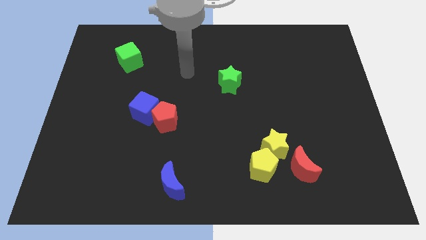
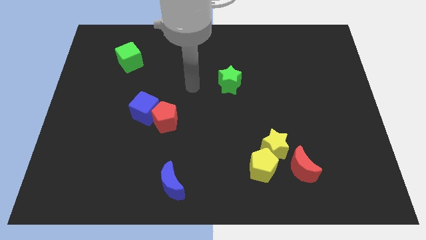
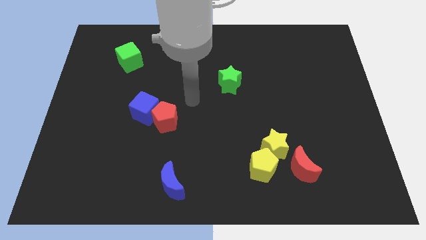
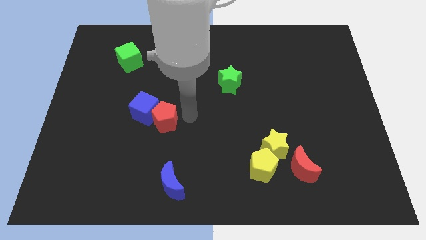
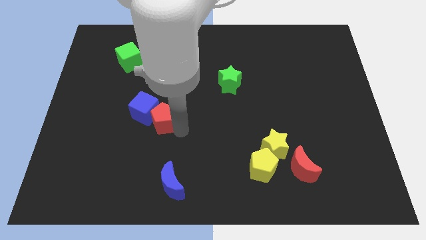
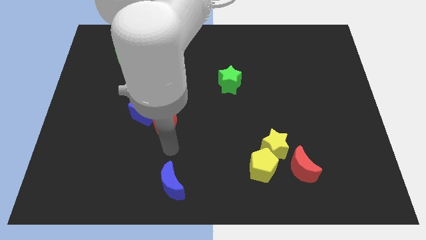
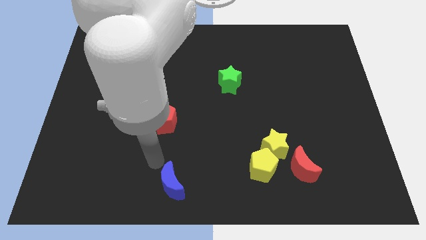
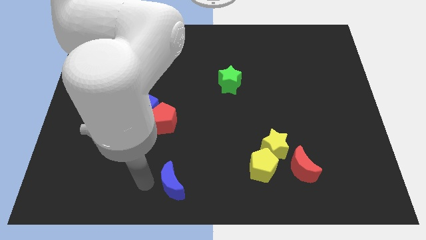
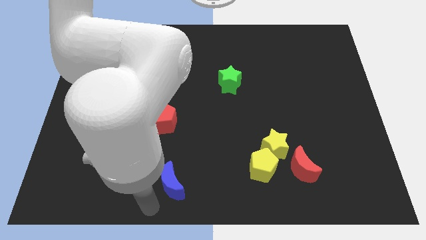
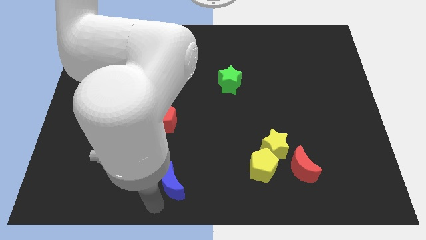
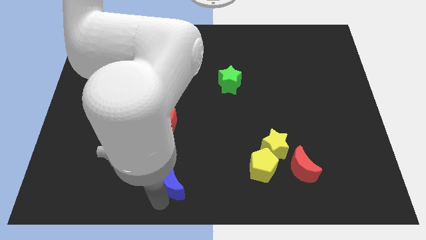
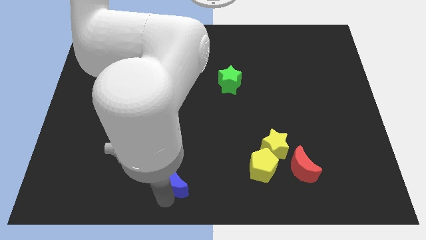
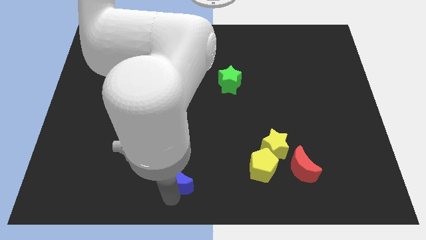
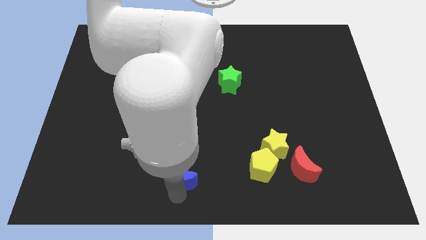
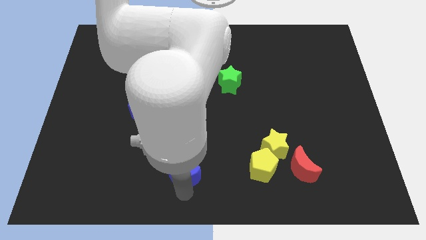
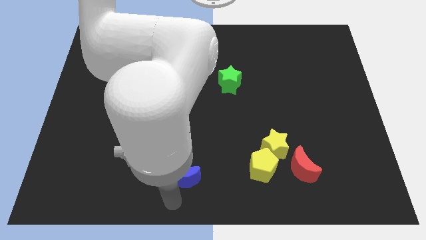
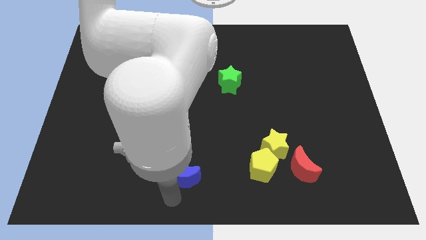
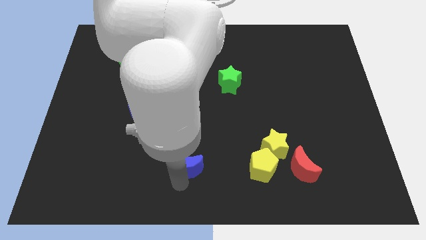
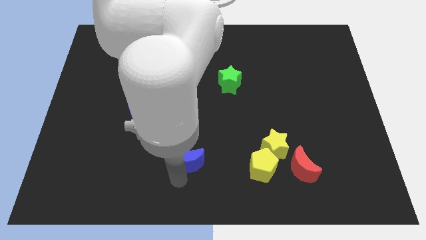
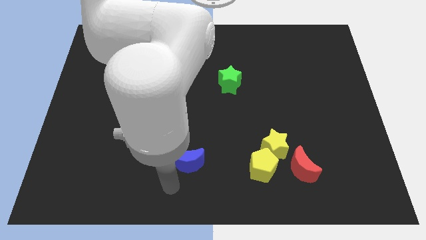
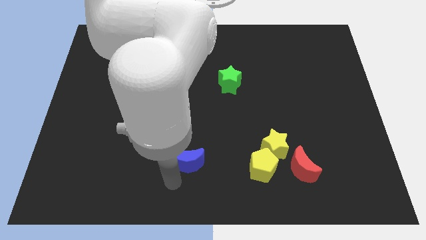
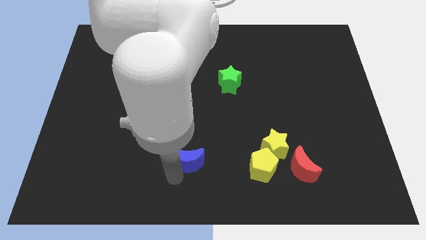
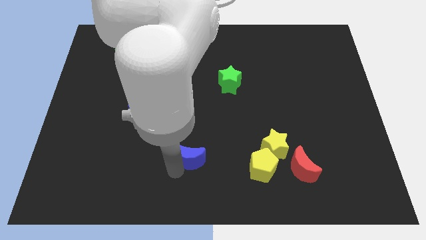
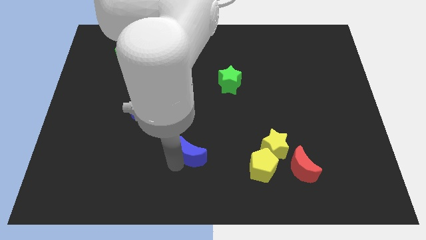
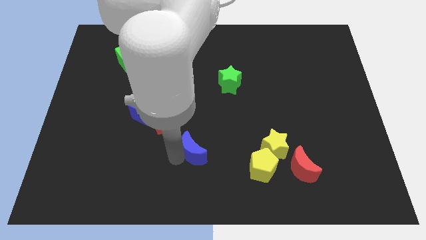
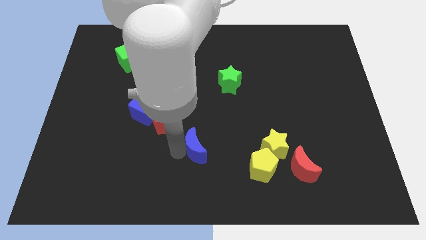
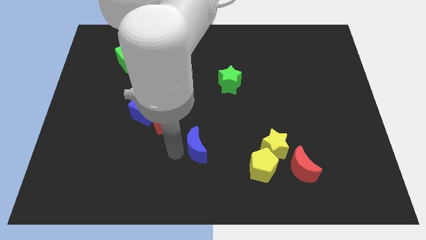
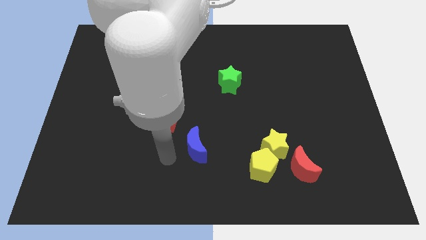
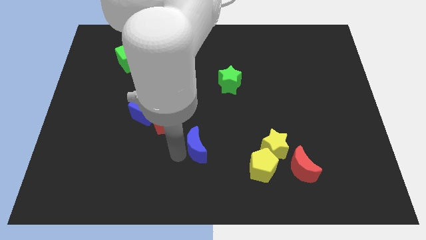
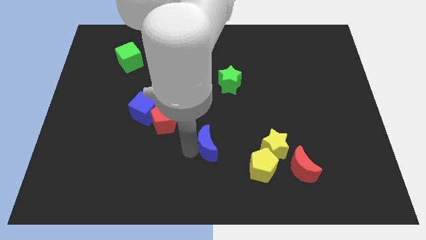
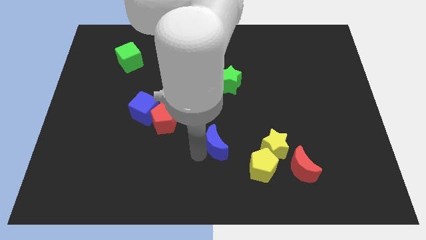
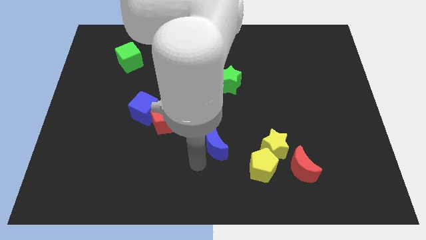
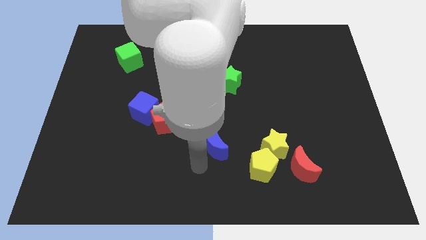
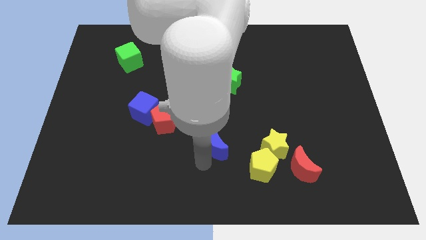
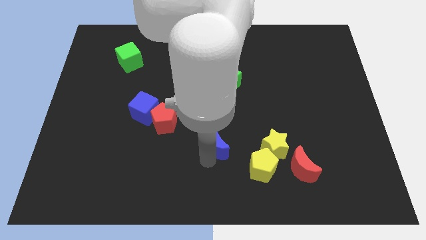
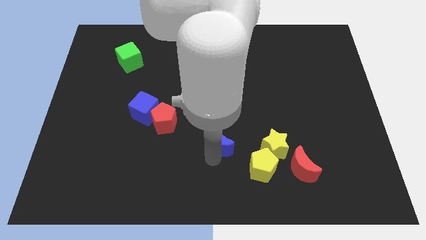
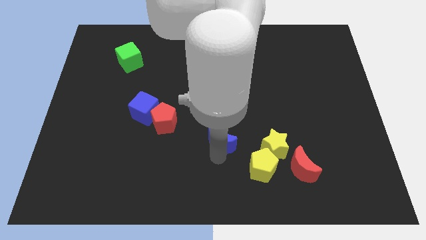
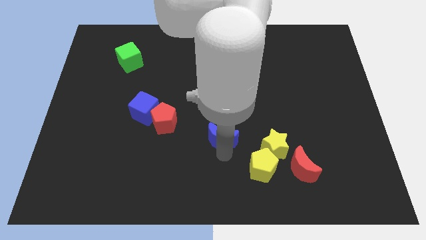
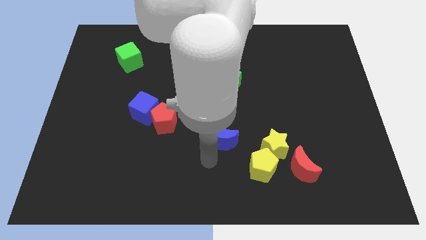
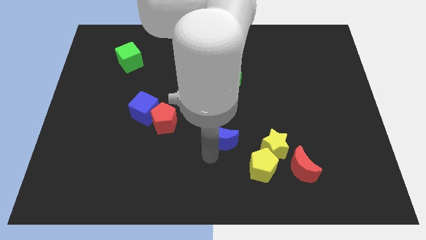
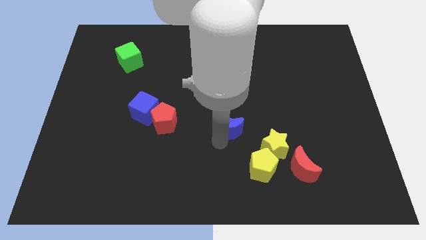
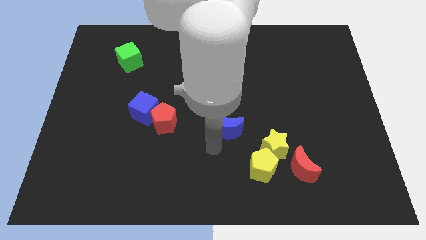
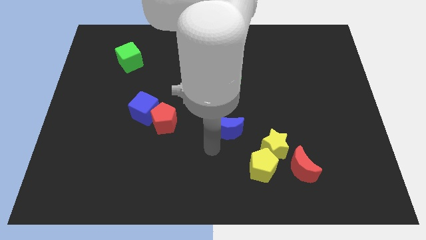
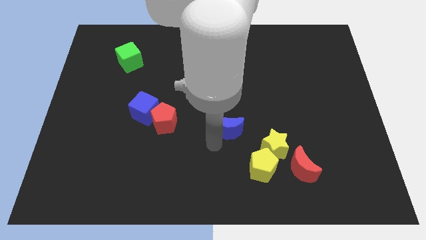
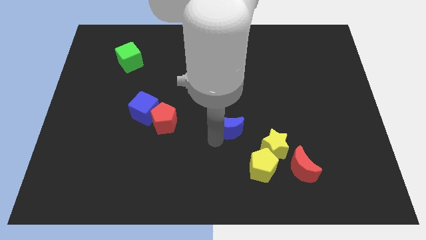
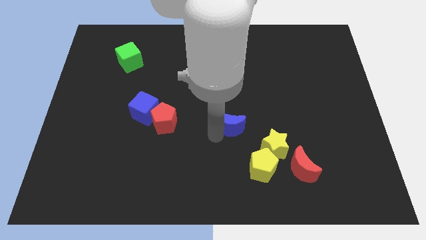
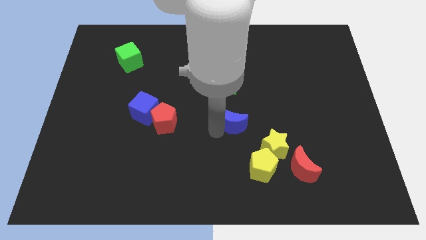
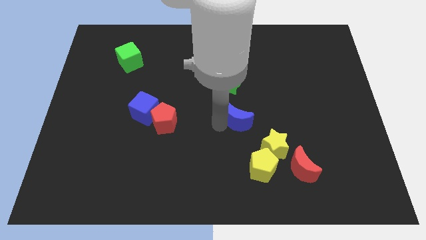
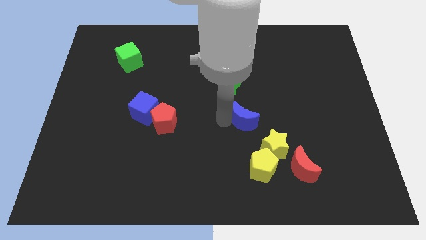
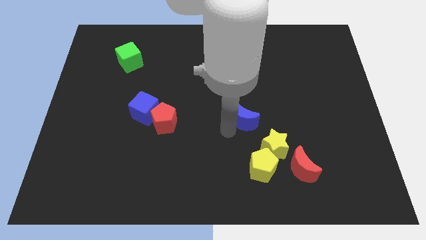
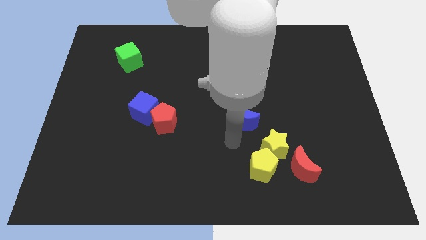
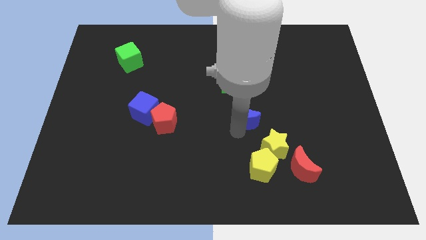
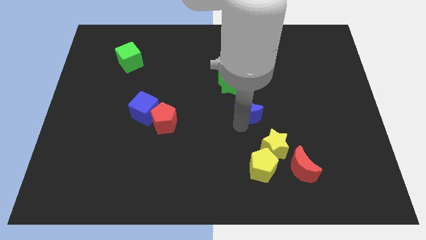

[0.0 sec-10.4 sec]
move the blue moon to the bottom right of the green star

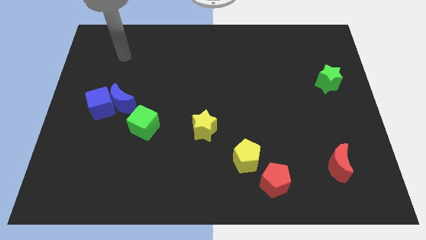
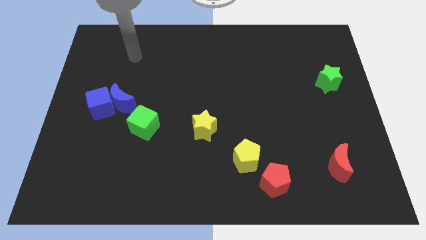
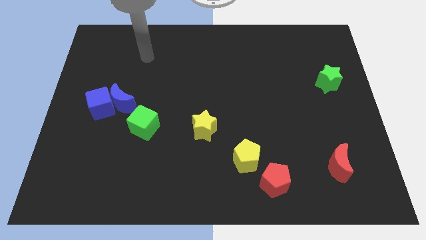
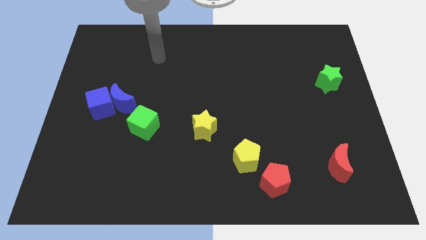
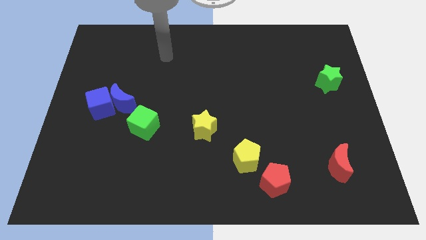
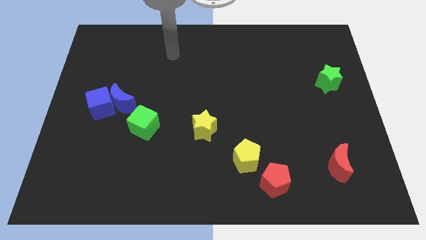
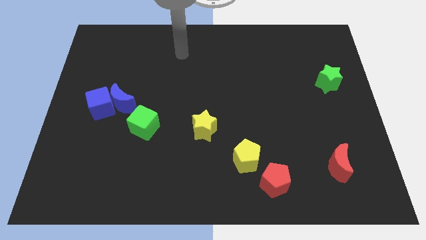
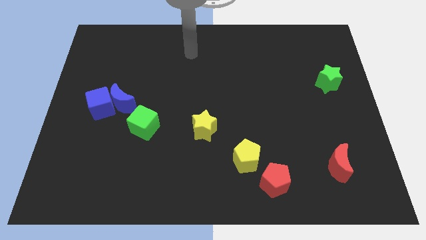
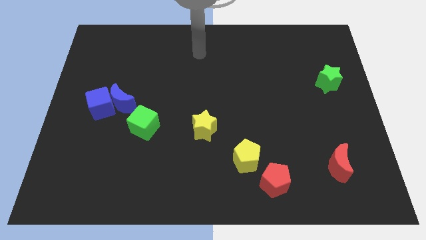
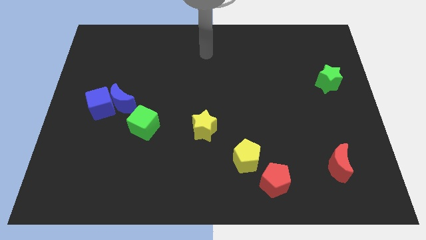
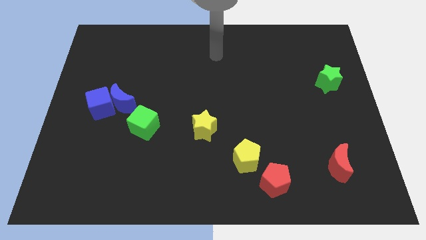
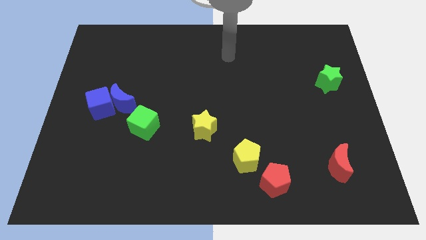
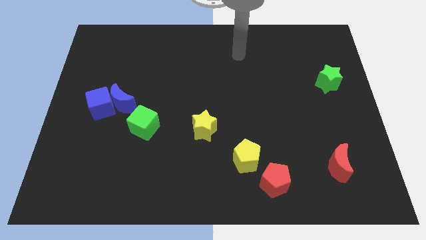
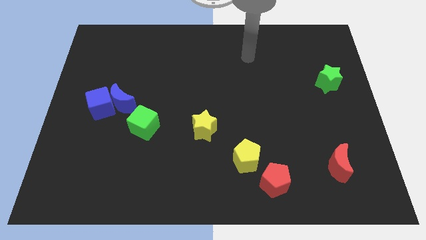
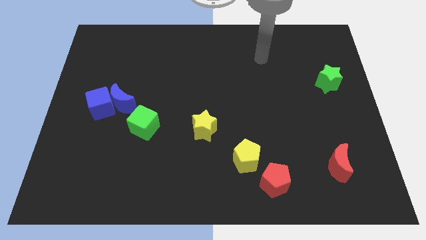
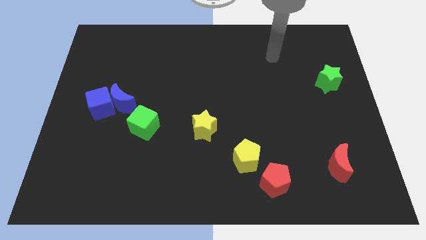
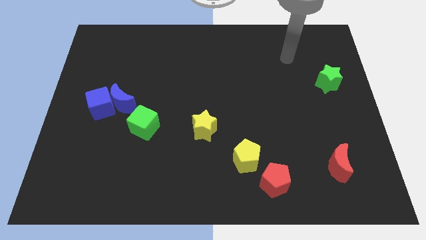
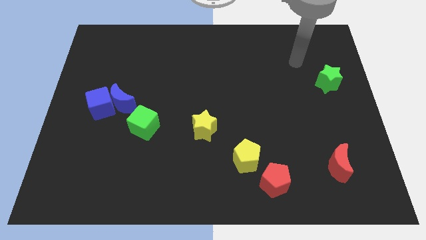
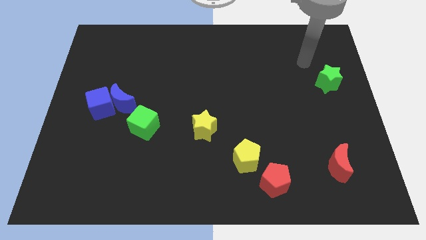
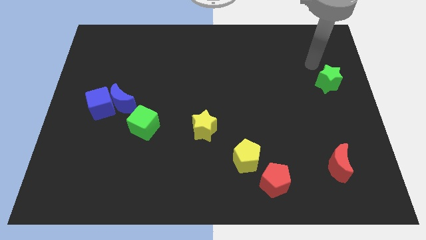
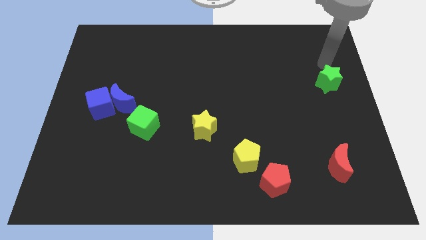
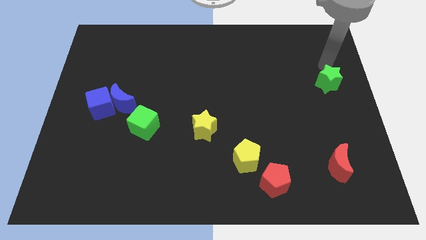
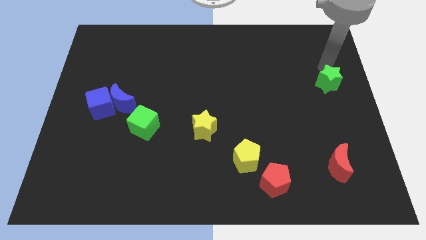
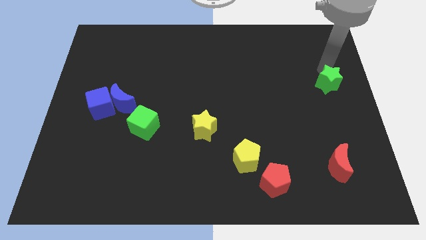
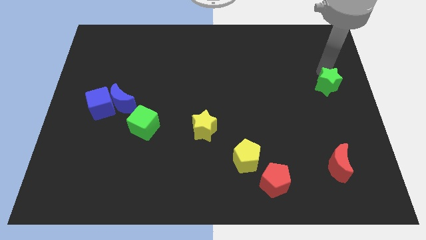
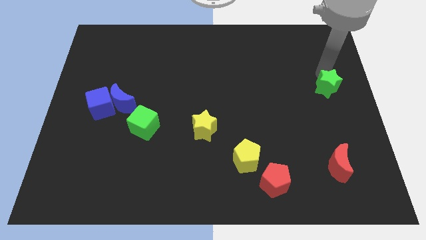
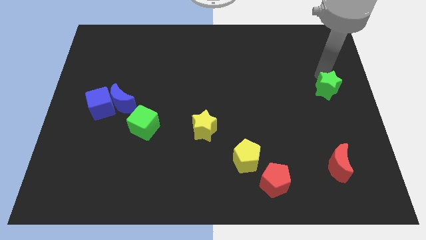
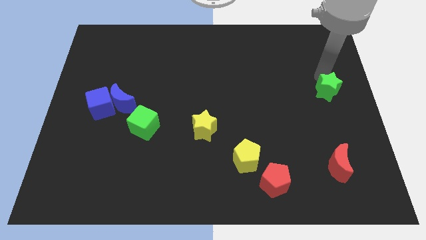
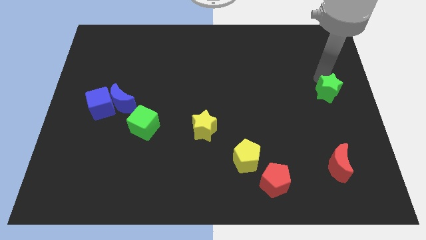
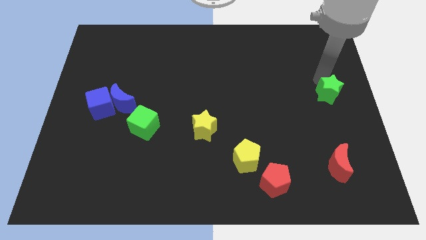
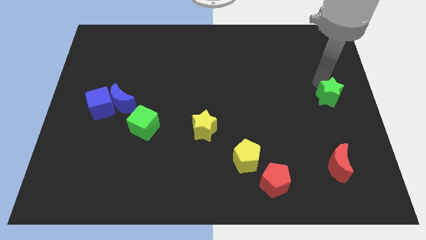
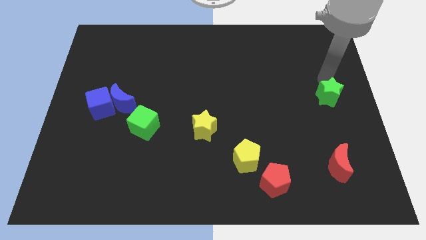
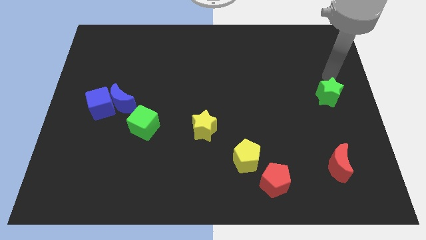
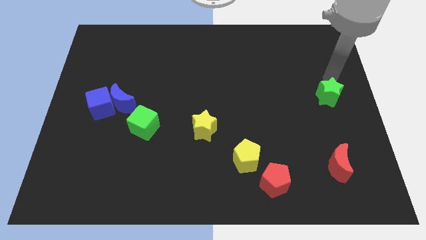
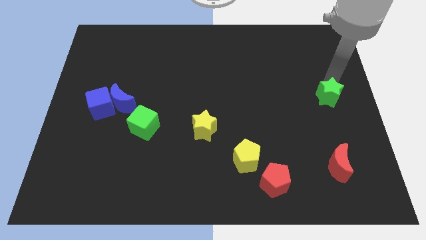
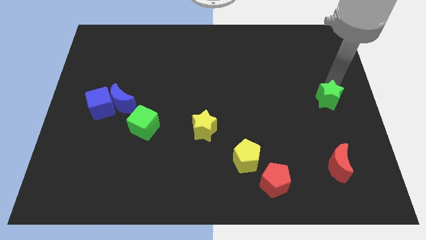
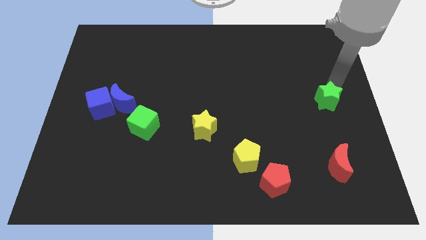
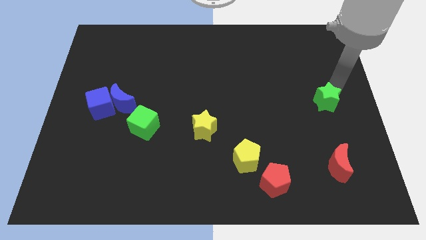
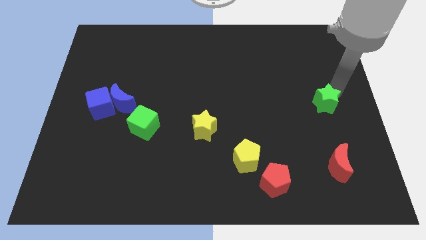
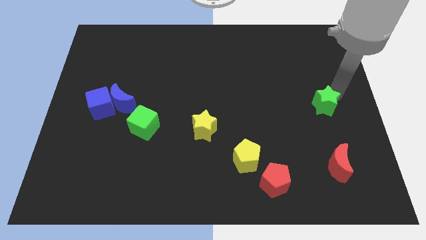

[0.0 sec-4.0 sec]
push the green star to the top of the red moon
